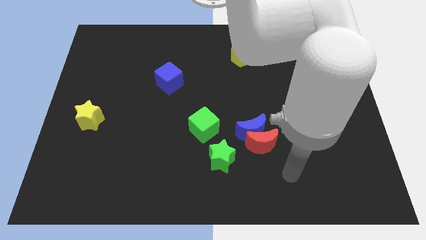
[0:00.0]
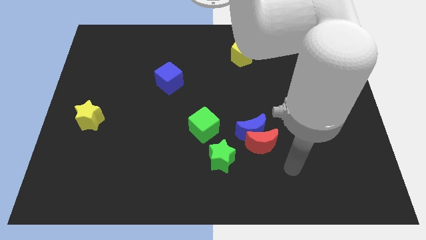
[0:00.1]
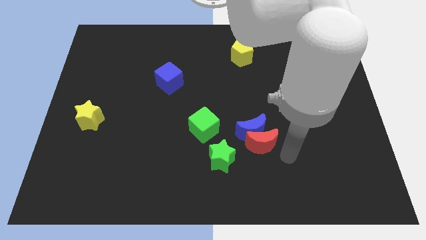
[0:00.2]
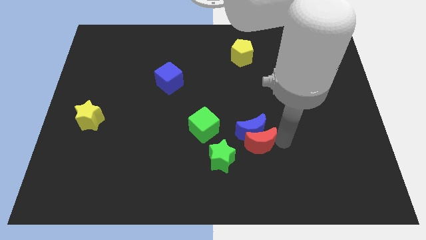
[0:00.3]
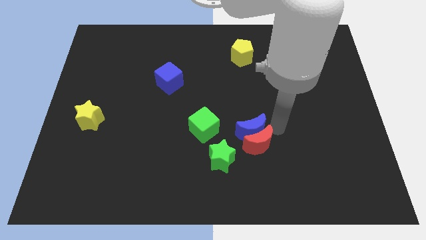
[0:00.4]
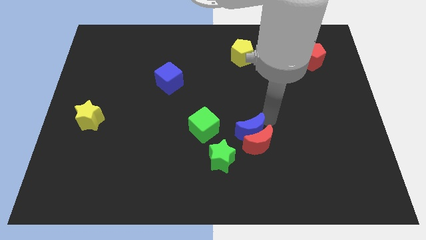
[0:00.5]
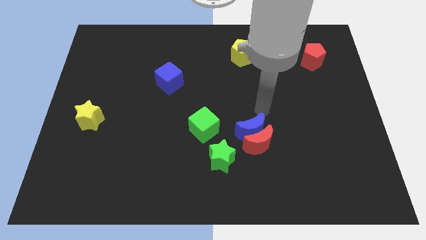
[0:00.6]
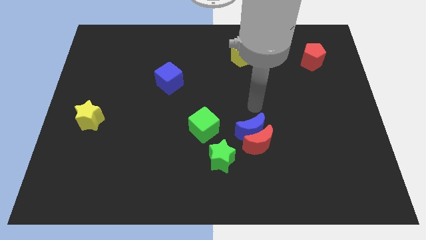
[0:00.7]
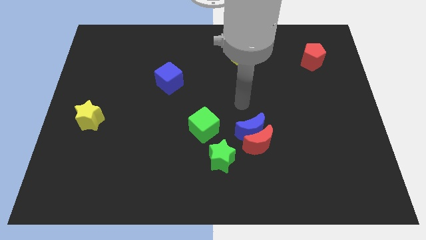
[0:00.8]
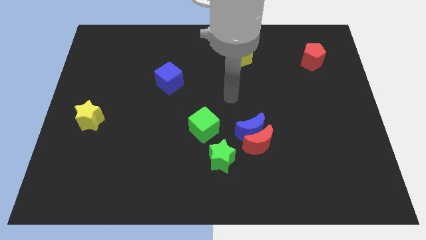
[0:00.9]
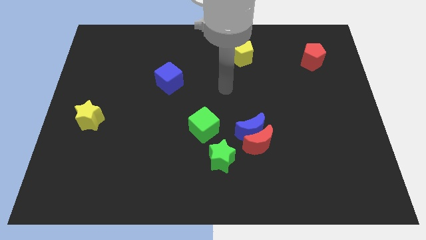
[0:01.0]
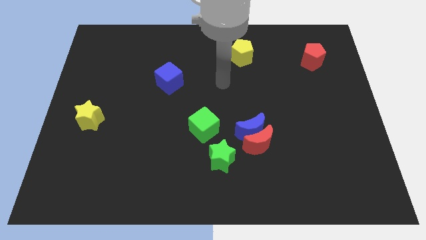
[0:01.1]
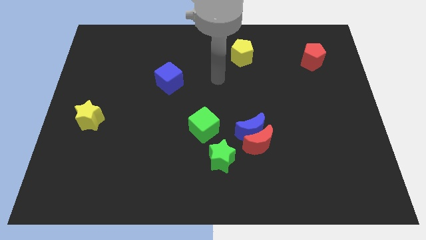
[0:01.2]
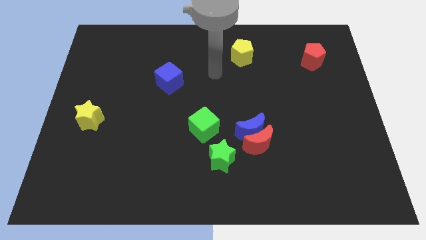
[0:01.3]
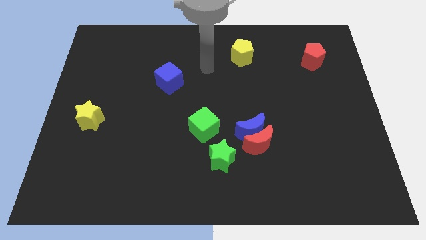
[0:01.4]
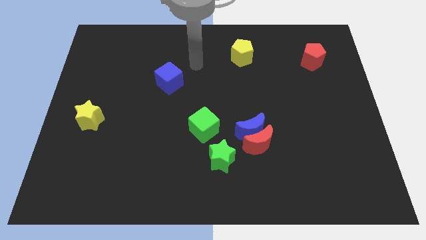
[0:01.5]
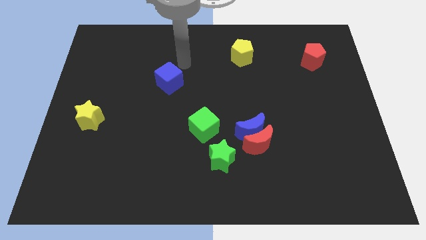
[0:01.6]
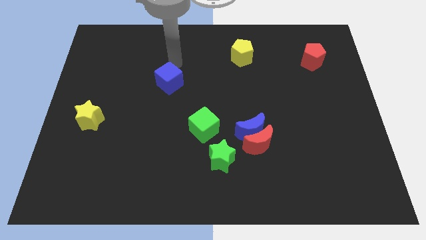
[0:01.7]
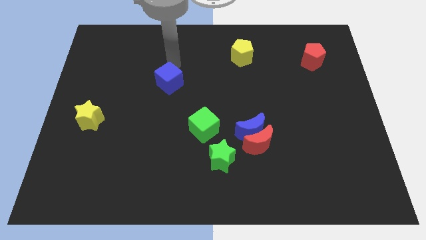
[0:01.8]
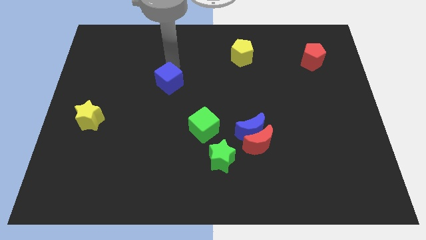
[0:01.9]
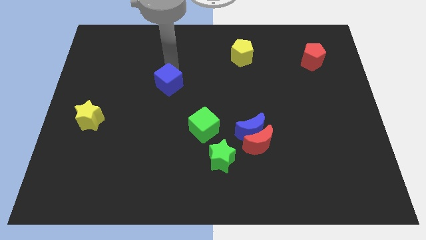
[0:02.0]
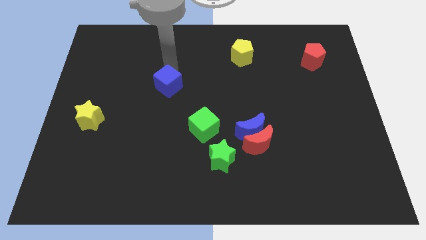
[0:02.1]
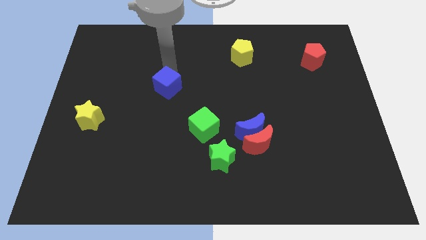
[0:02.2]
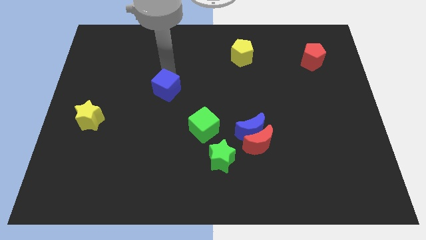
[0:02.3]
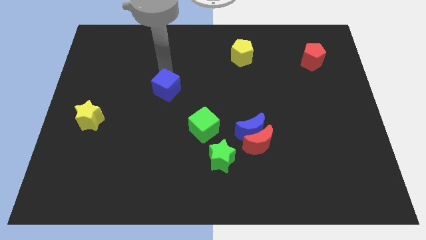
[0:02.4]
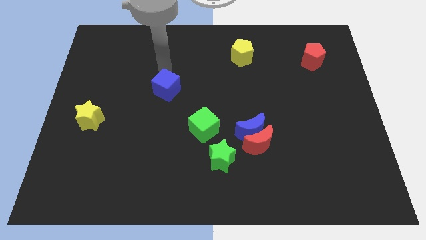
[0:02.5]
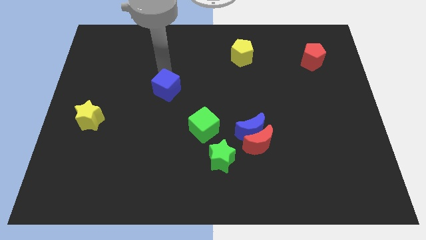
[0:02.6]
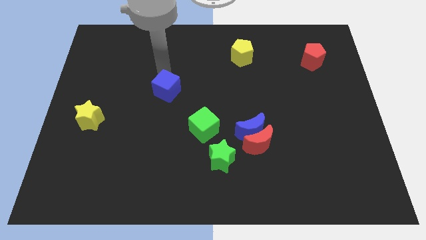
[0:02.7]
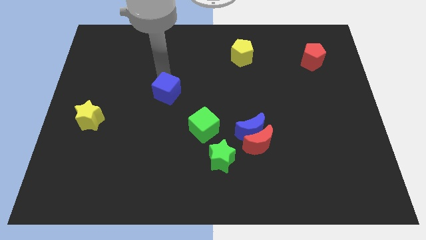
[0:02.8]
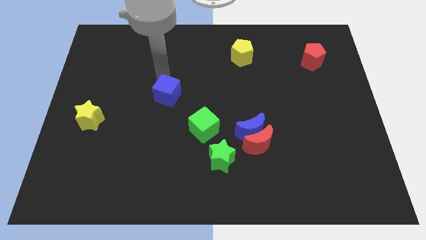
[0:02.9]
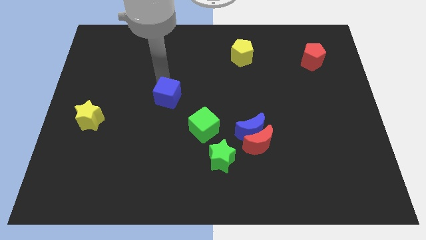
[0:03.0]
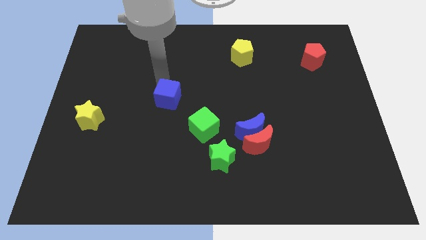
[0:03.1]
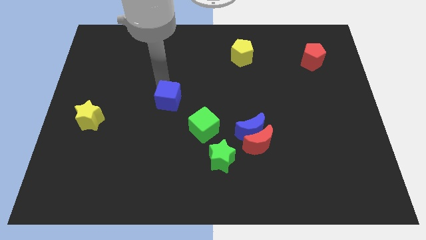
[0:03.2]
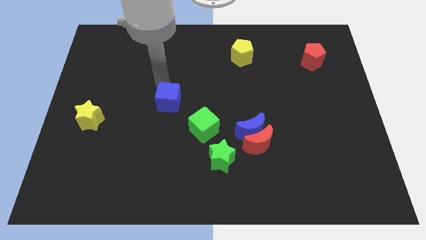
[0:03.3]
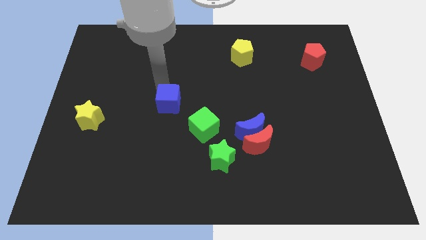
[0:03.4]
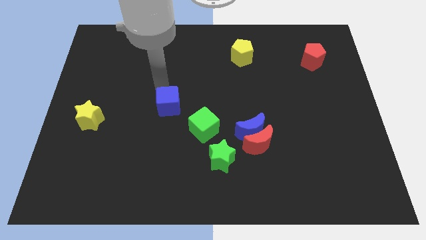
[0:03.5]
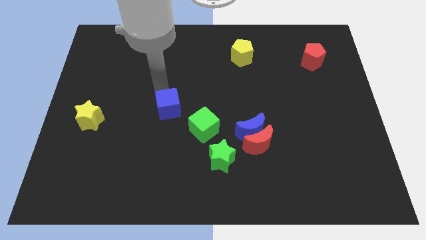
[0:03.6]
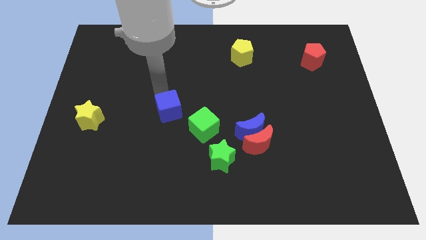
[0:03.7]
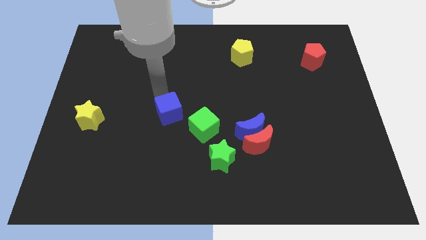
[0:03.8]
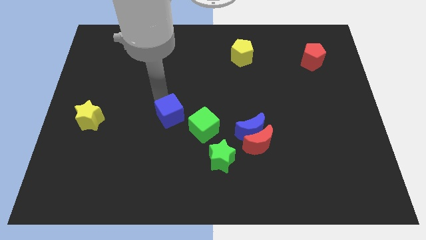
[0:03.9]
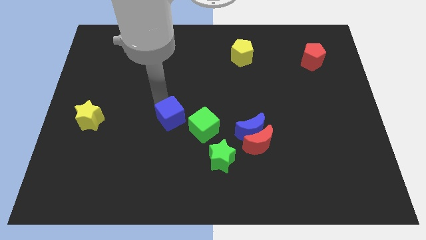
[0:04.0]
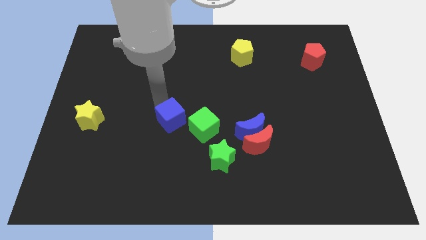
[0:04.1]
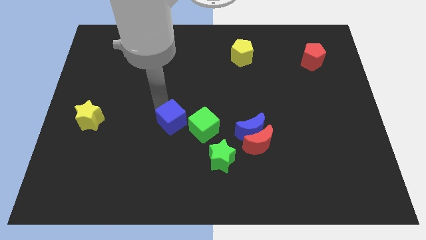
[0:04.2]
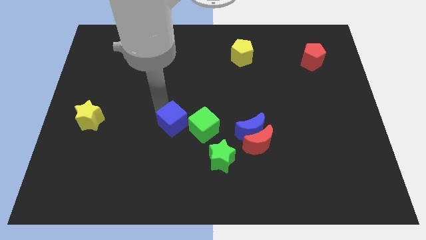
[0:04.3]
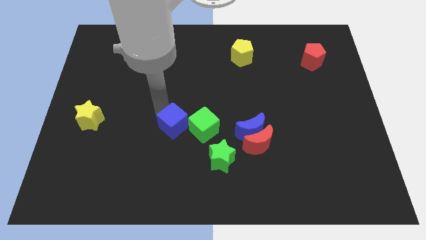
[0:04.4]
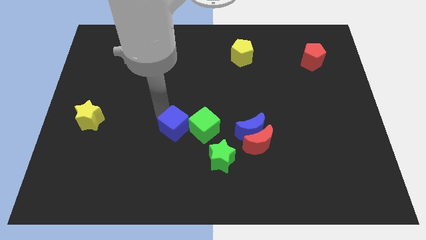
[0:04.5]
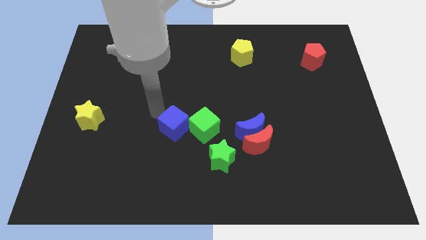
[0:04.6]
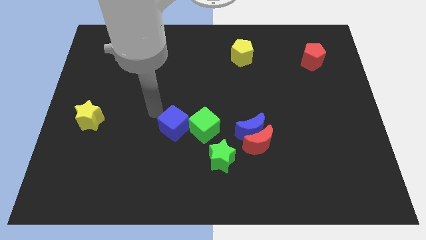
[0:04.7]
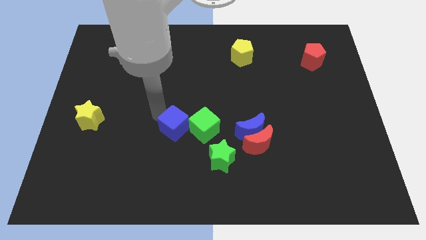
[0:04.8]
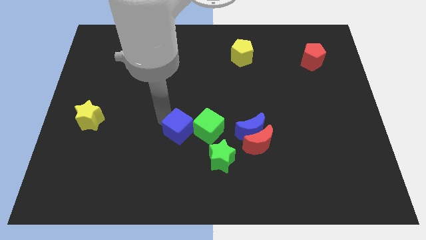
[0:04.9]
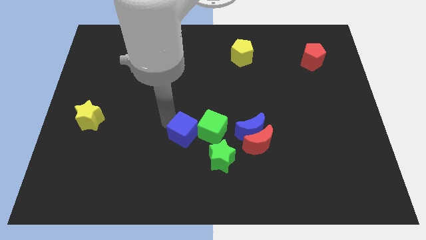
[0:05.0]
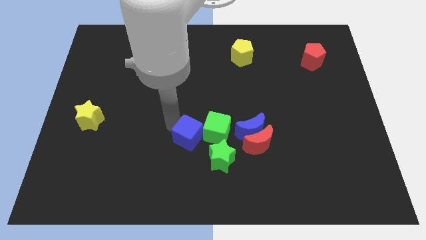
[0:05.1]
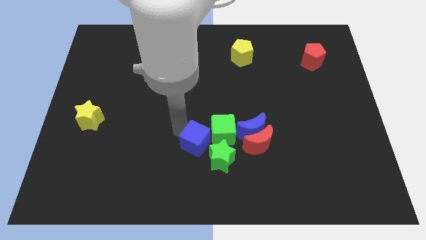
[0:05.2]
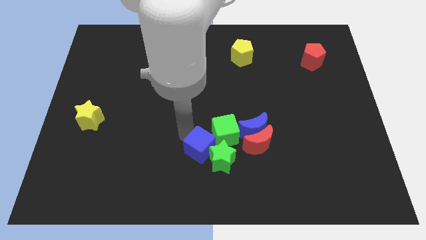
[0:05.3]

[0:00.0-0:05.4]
move the blue cube close to the green star

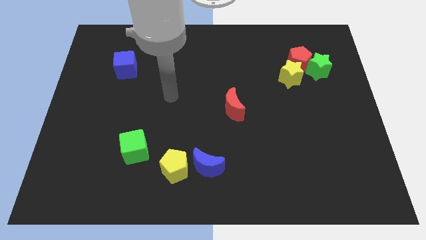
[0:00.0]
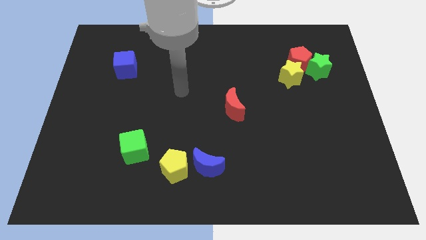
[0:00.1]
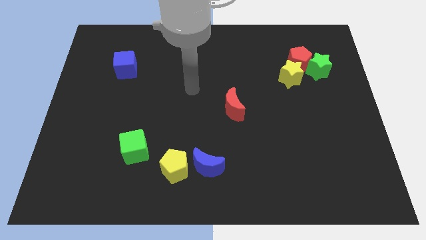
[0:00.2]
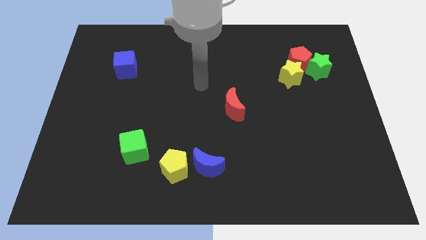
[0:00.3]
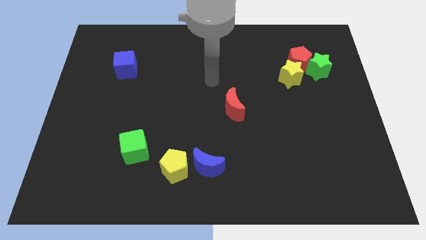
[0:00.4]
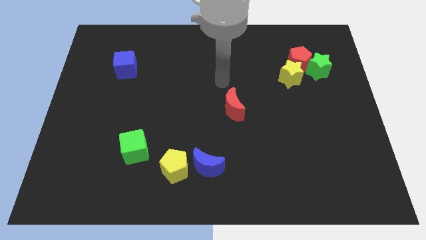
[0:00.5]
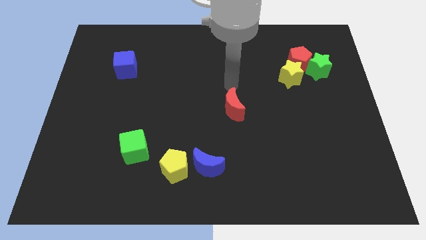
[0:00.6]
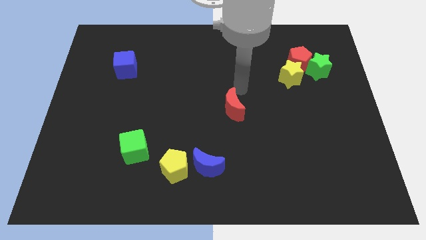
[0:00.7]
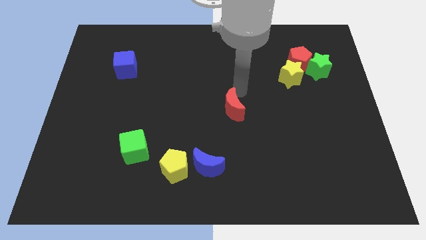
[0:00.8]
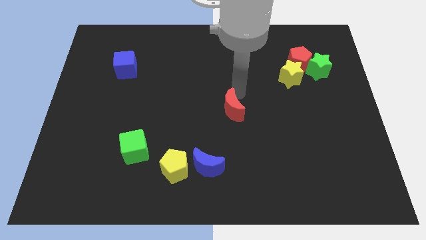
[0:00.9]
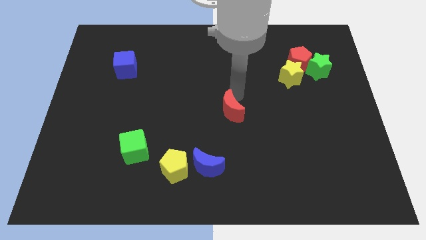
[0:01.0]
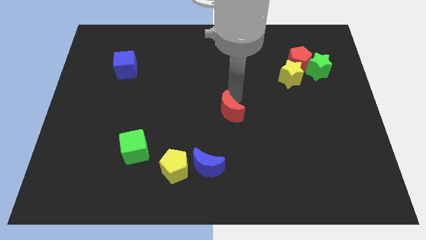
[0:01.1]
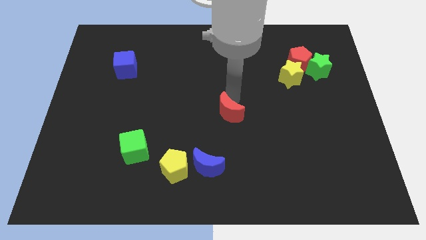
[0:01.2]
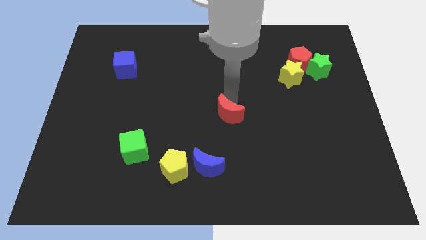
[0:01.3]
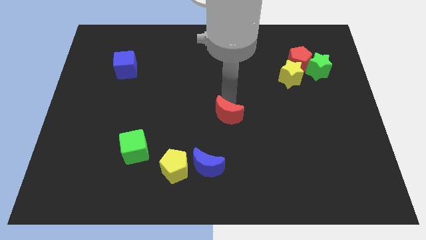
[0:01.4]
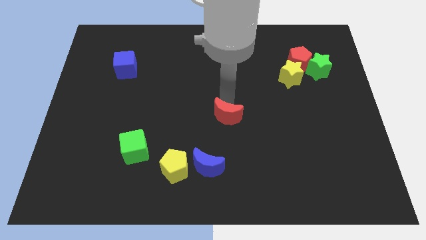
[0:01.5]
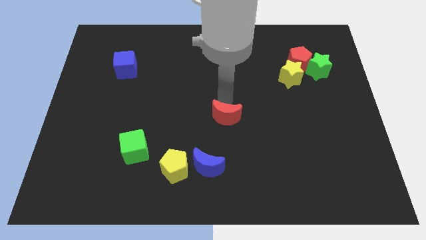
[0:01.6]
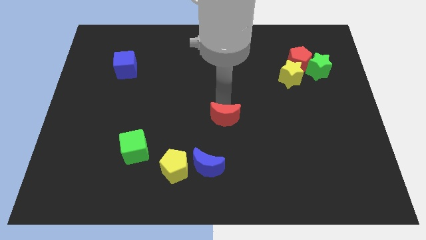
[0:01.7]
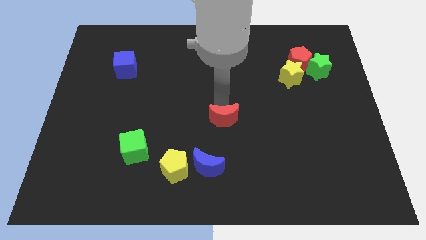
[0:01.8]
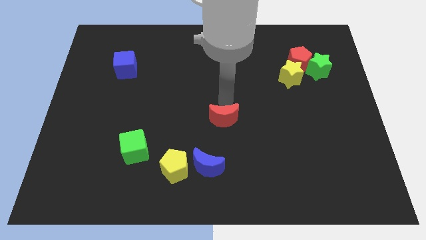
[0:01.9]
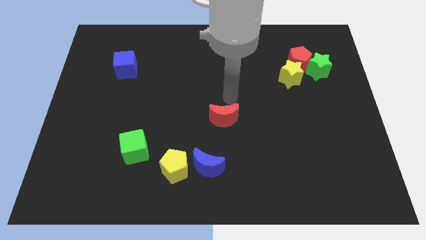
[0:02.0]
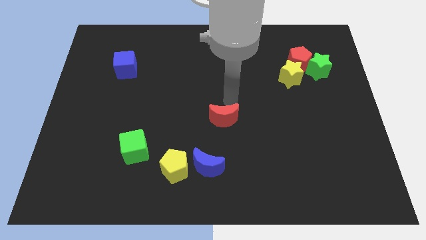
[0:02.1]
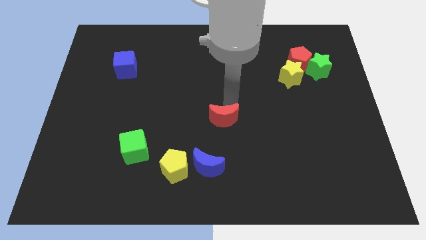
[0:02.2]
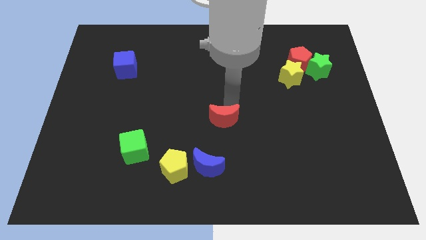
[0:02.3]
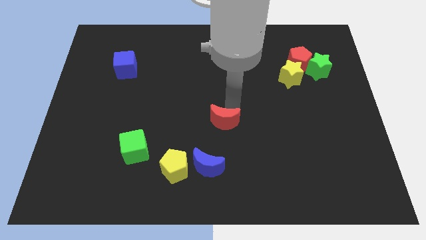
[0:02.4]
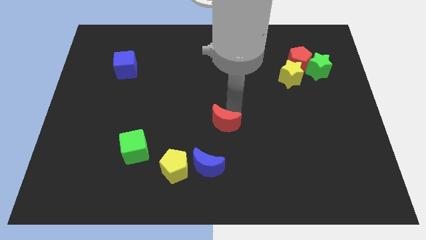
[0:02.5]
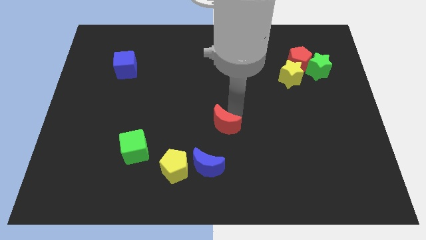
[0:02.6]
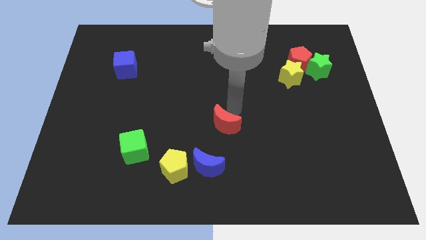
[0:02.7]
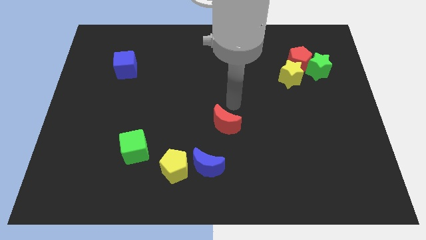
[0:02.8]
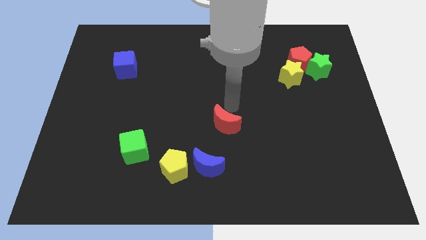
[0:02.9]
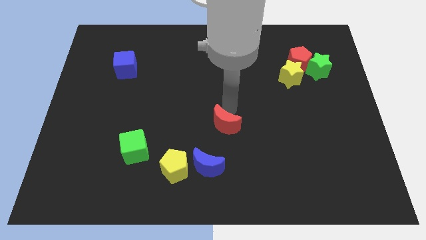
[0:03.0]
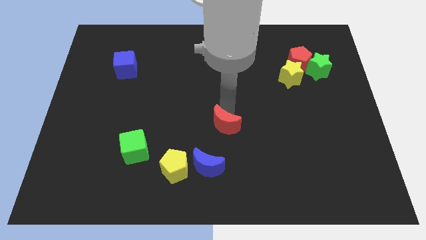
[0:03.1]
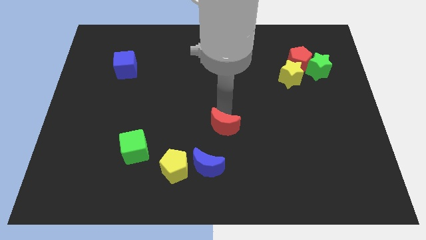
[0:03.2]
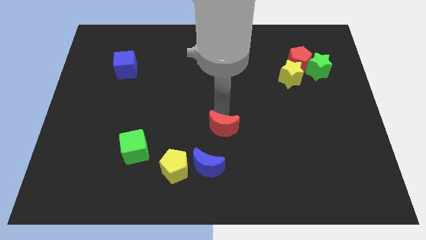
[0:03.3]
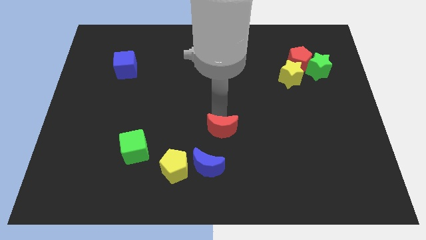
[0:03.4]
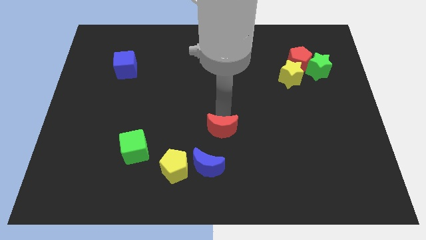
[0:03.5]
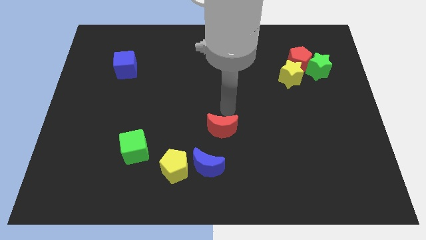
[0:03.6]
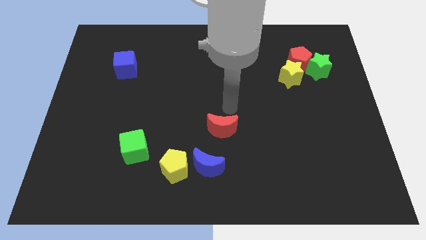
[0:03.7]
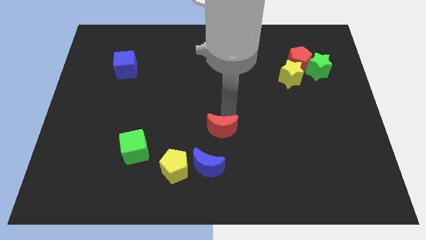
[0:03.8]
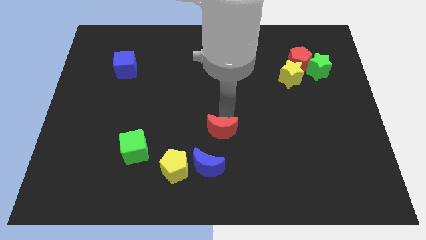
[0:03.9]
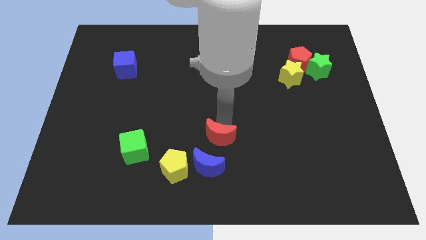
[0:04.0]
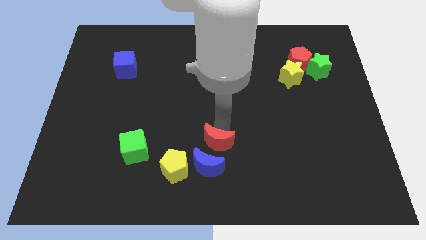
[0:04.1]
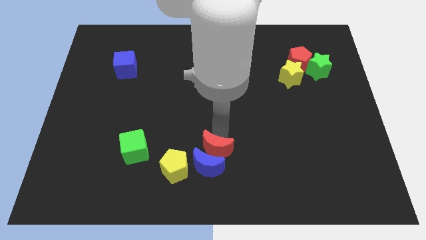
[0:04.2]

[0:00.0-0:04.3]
put the red moon to the blue moon
